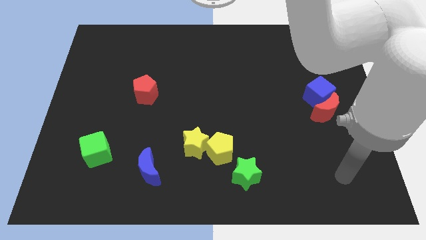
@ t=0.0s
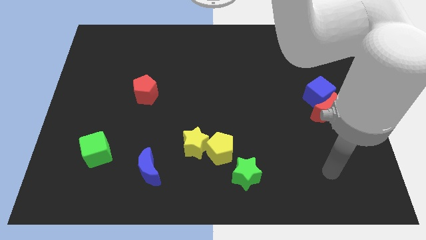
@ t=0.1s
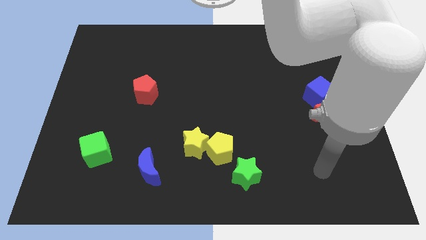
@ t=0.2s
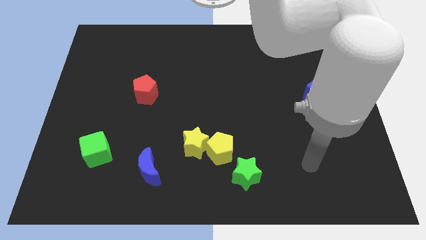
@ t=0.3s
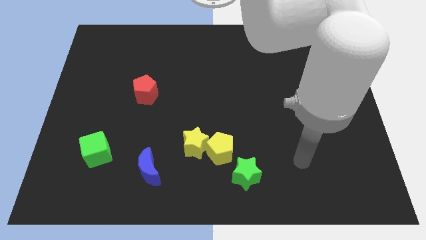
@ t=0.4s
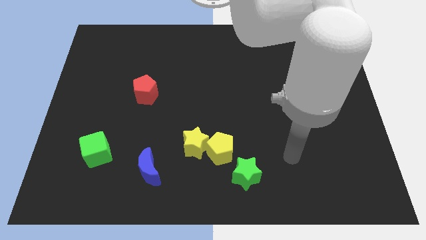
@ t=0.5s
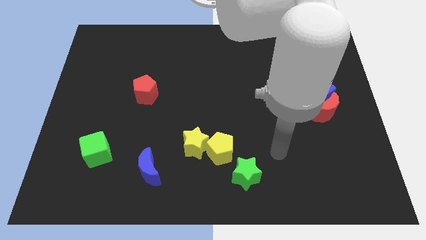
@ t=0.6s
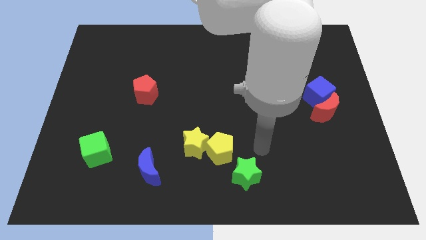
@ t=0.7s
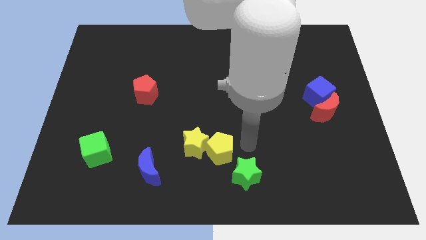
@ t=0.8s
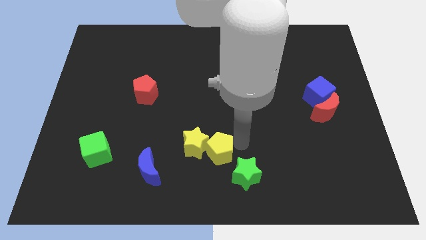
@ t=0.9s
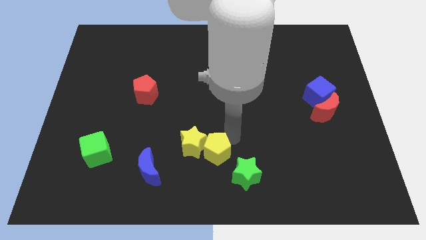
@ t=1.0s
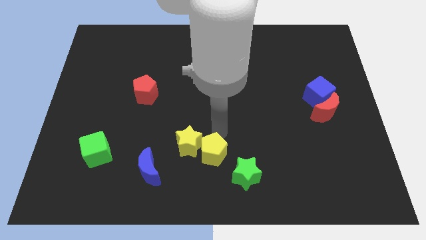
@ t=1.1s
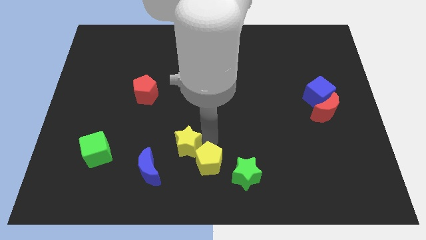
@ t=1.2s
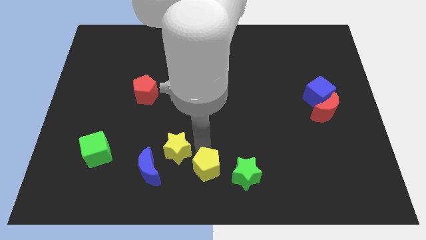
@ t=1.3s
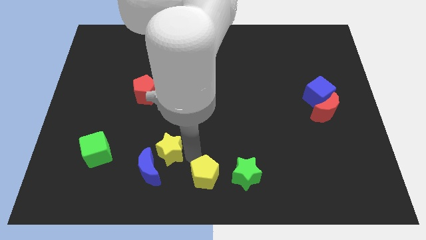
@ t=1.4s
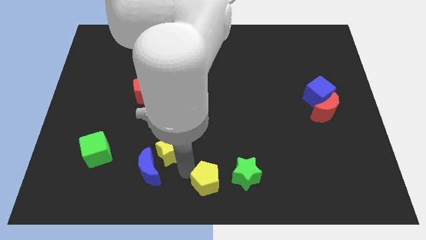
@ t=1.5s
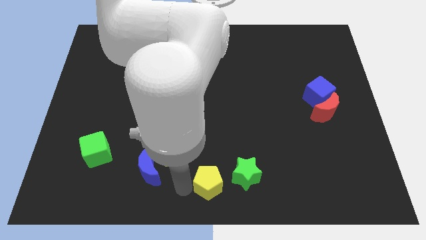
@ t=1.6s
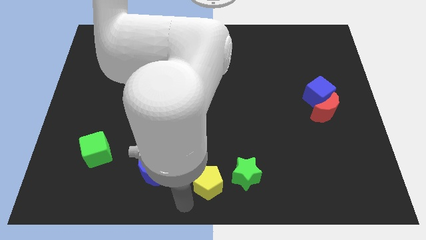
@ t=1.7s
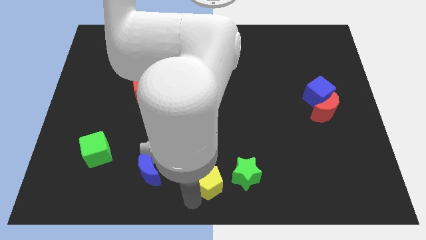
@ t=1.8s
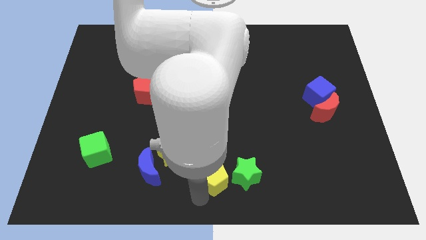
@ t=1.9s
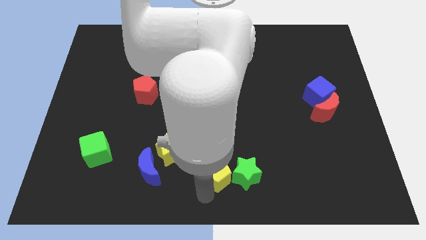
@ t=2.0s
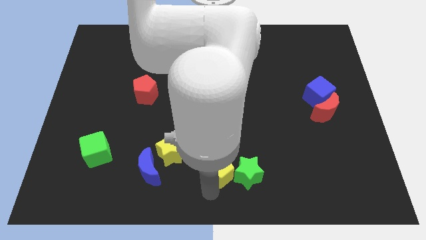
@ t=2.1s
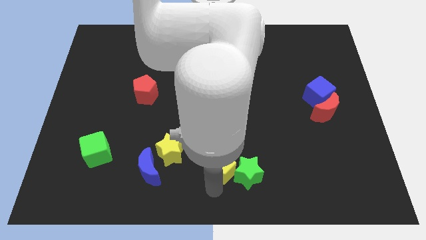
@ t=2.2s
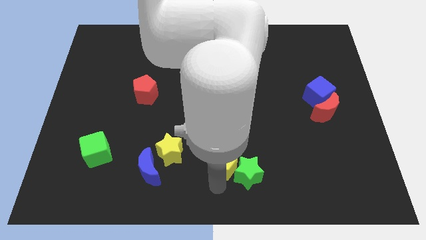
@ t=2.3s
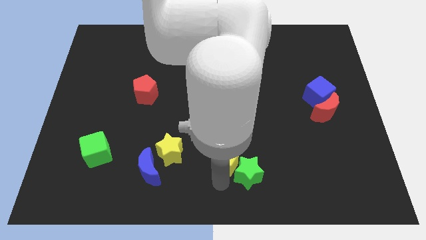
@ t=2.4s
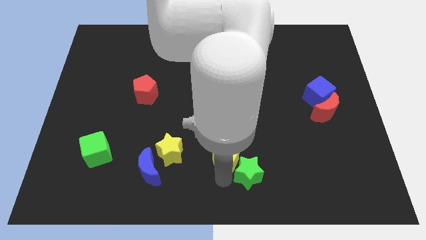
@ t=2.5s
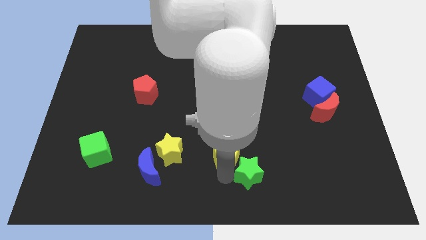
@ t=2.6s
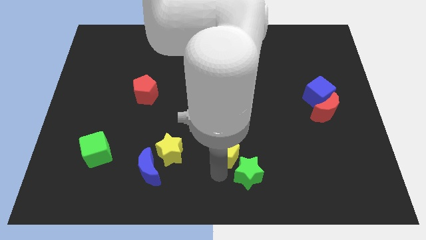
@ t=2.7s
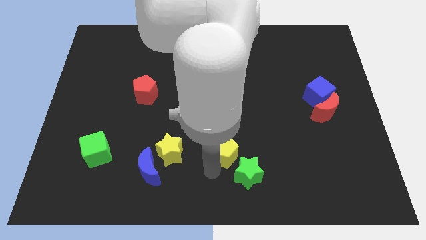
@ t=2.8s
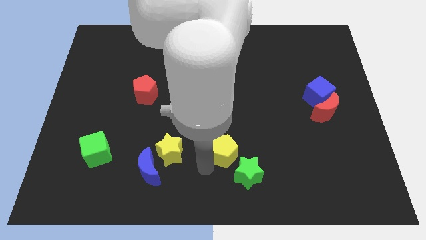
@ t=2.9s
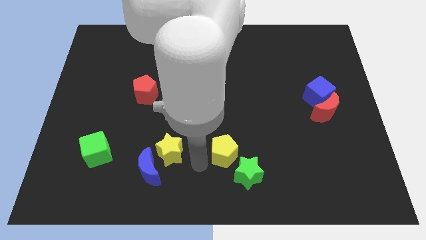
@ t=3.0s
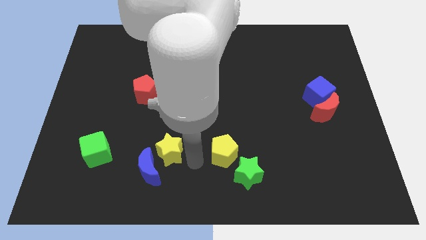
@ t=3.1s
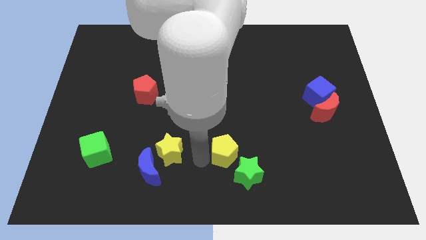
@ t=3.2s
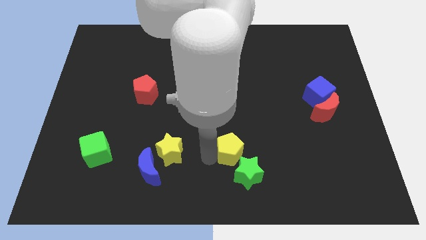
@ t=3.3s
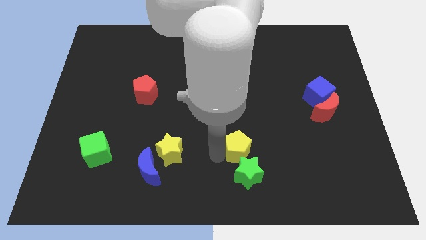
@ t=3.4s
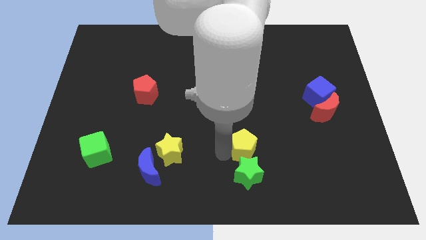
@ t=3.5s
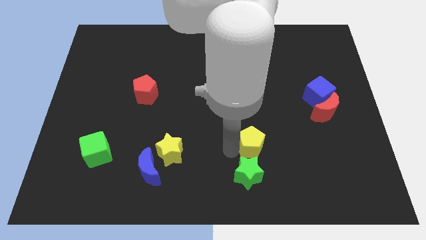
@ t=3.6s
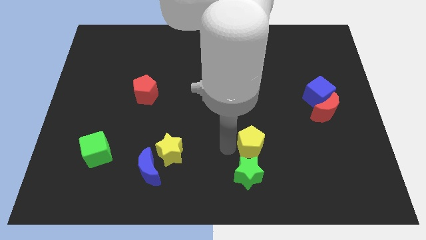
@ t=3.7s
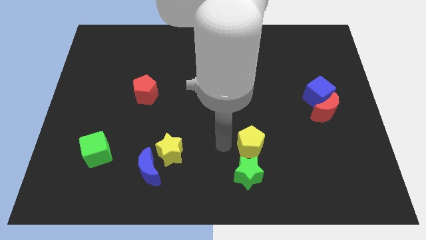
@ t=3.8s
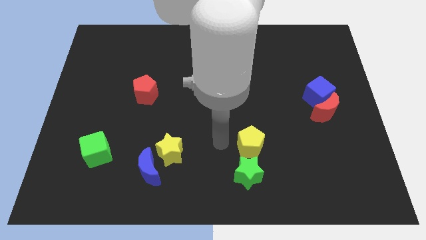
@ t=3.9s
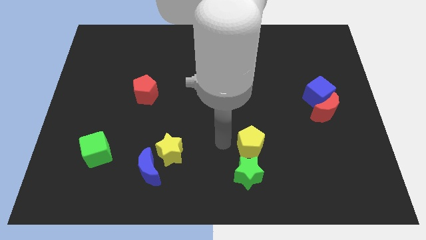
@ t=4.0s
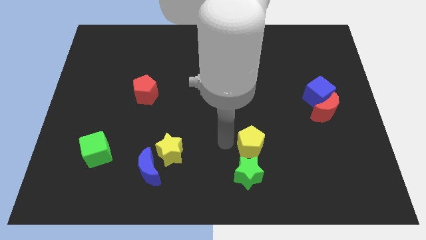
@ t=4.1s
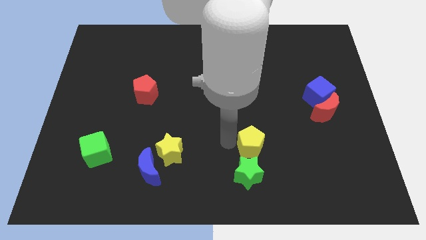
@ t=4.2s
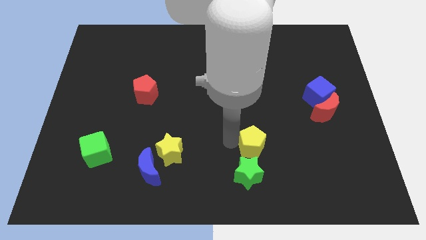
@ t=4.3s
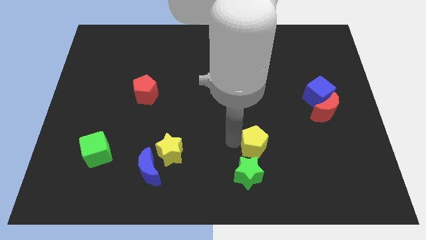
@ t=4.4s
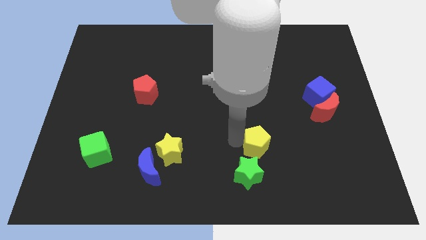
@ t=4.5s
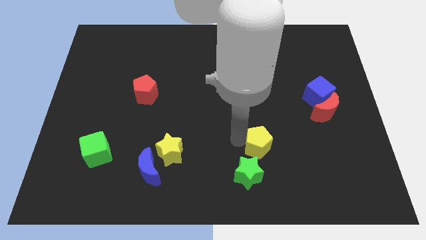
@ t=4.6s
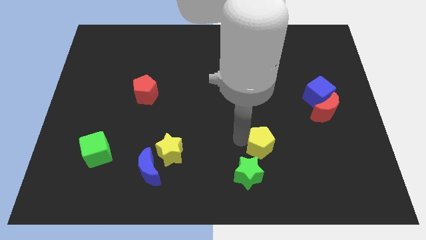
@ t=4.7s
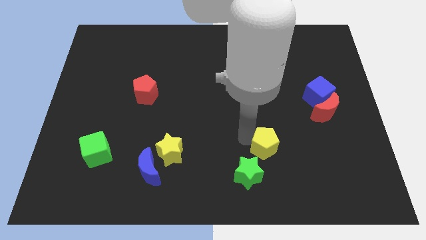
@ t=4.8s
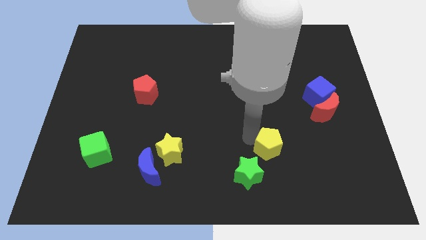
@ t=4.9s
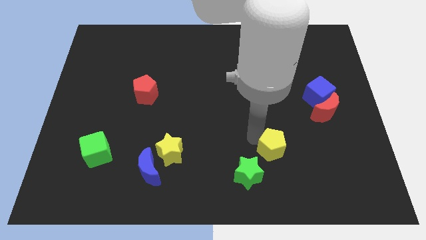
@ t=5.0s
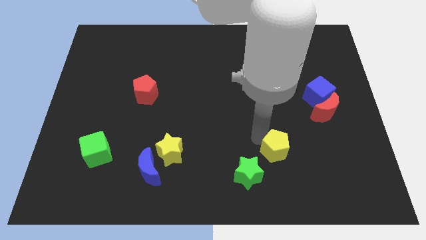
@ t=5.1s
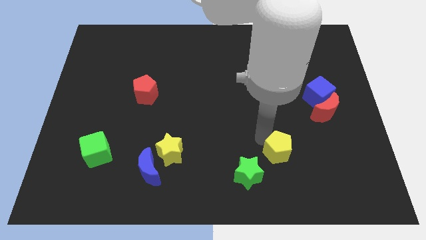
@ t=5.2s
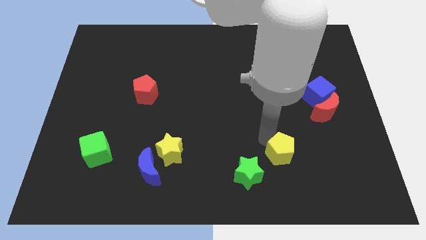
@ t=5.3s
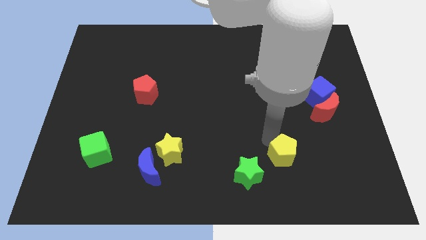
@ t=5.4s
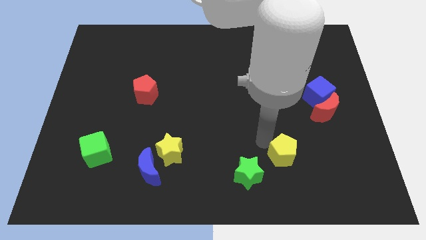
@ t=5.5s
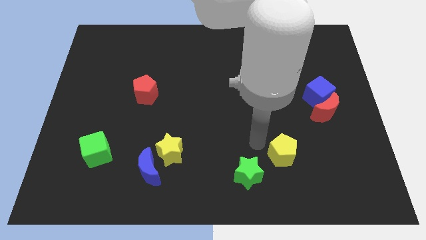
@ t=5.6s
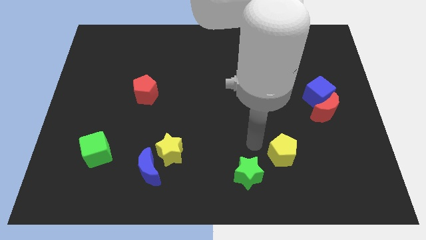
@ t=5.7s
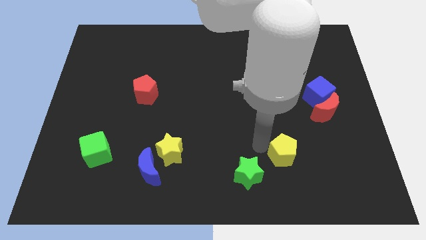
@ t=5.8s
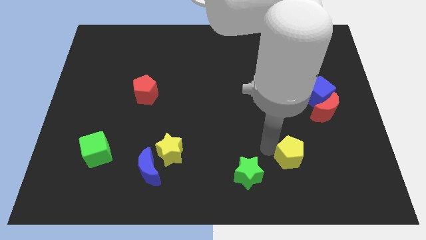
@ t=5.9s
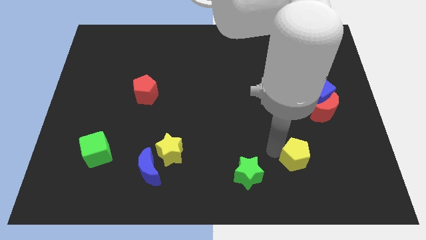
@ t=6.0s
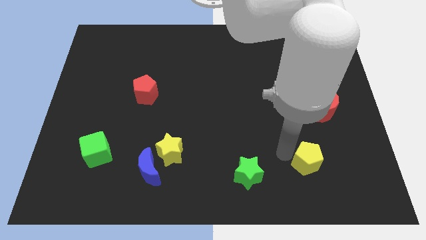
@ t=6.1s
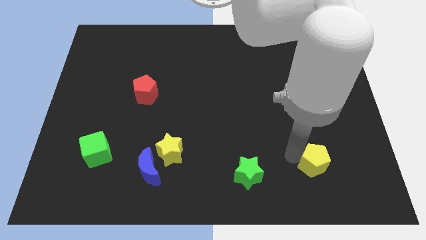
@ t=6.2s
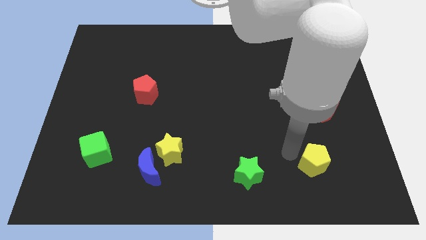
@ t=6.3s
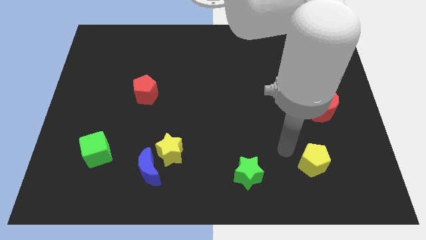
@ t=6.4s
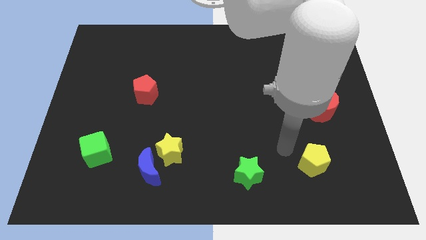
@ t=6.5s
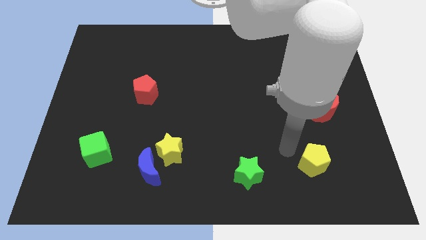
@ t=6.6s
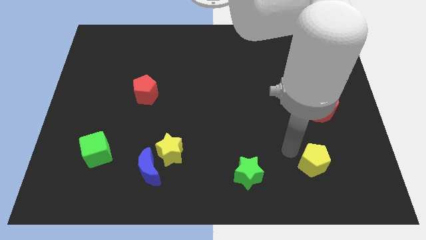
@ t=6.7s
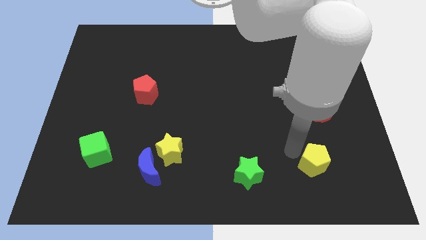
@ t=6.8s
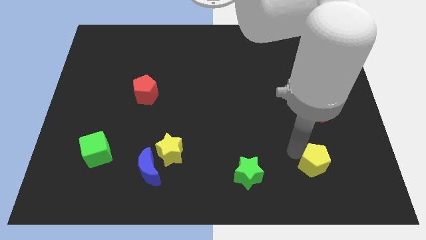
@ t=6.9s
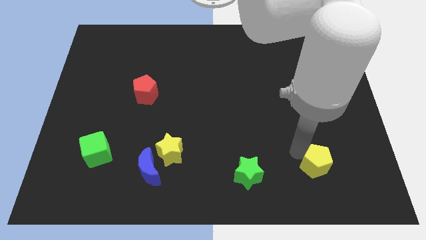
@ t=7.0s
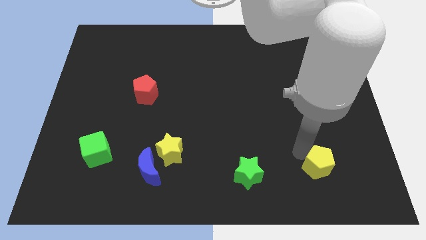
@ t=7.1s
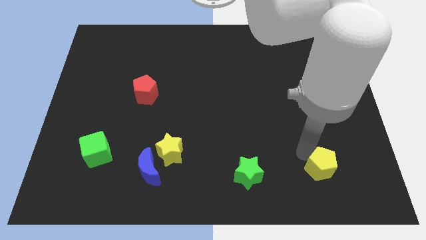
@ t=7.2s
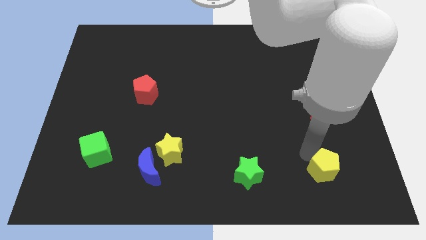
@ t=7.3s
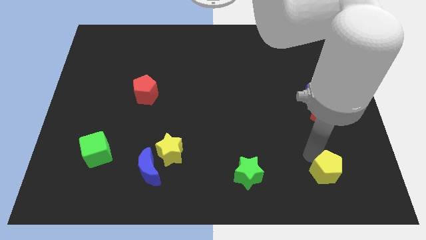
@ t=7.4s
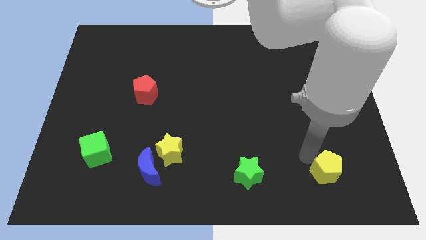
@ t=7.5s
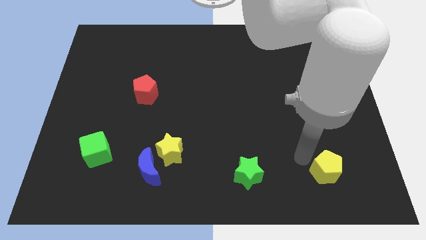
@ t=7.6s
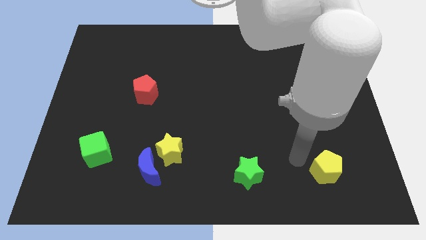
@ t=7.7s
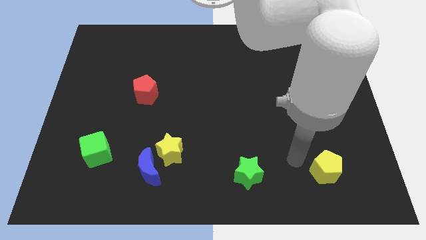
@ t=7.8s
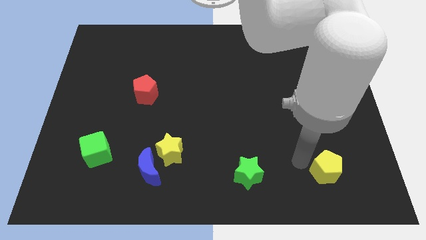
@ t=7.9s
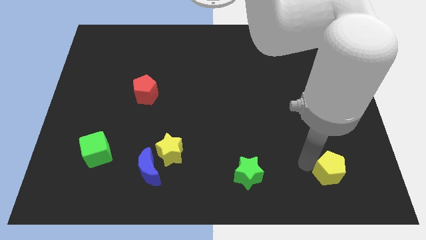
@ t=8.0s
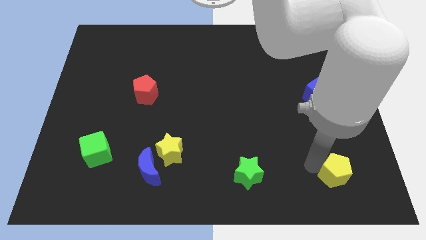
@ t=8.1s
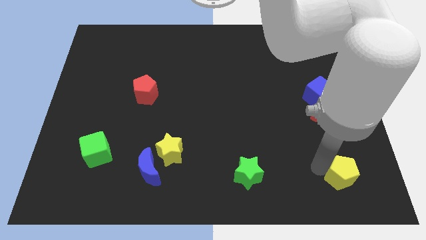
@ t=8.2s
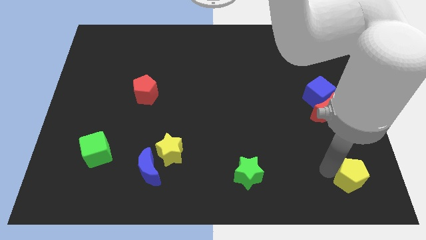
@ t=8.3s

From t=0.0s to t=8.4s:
put the yellow pentagon to the bottom right of the board
